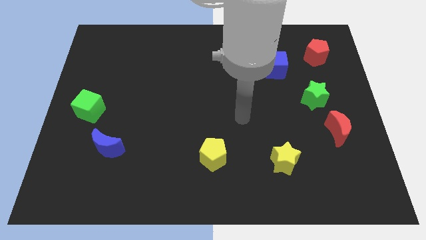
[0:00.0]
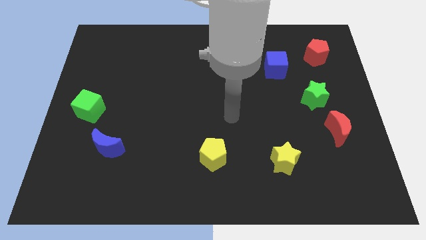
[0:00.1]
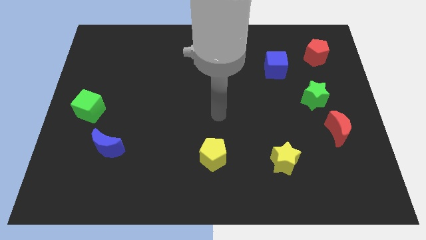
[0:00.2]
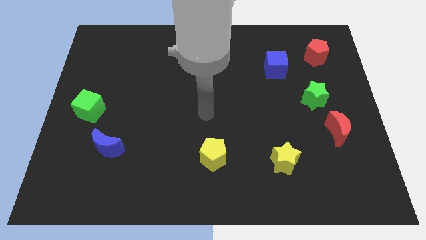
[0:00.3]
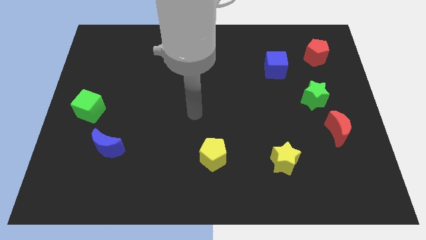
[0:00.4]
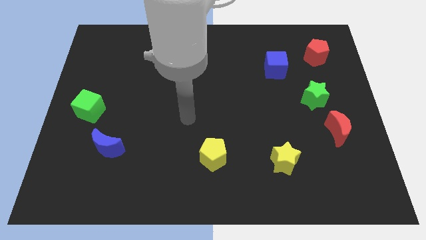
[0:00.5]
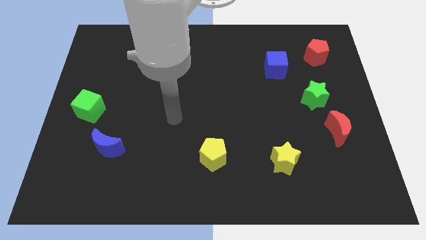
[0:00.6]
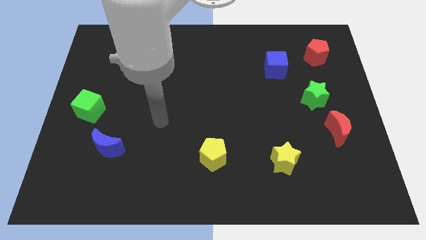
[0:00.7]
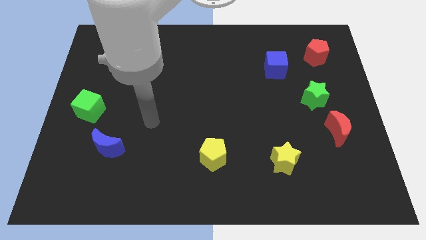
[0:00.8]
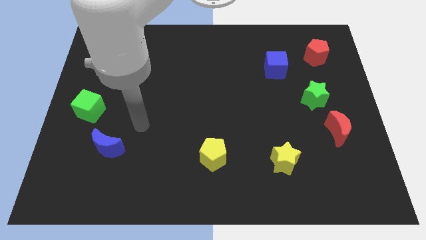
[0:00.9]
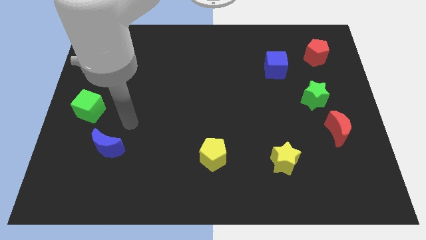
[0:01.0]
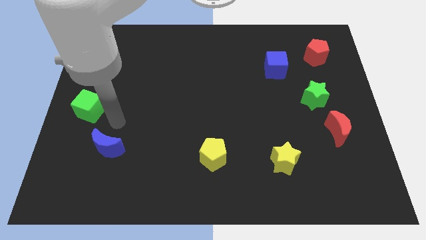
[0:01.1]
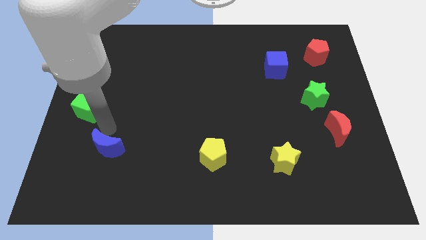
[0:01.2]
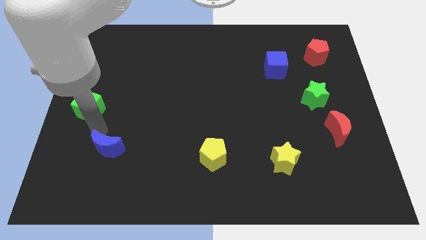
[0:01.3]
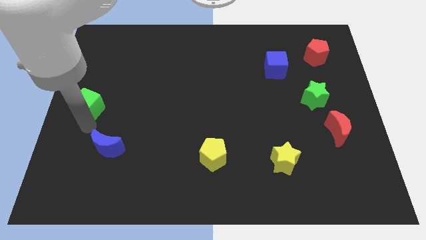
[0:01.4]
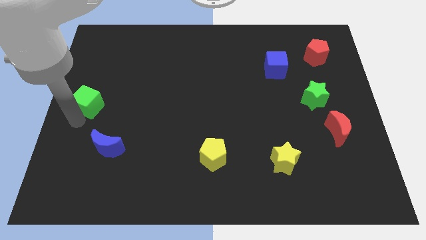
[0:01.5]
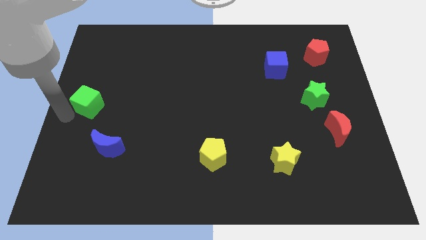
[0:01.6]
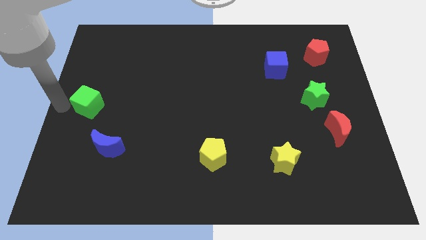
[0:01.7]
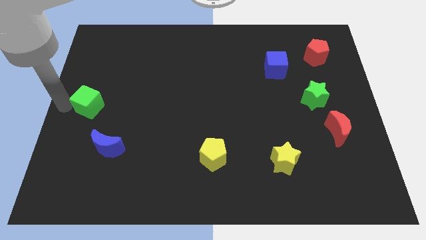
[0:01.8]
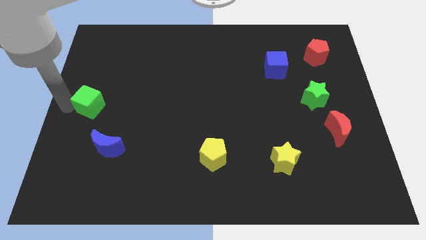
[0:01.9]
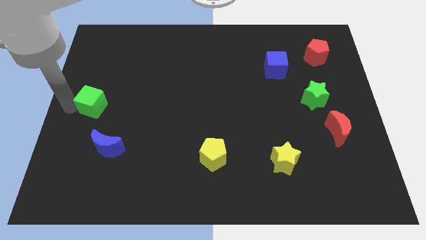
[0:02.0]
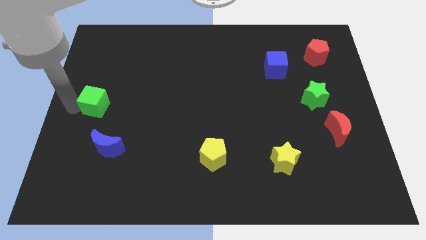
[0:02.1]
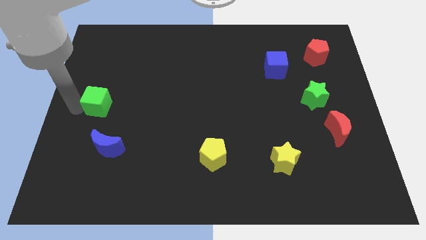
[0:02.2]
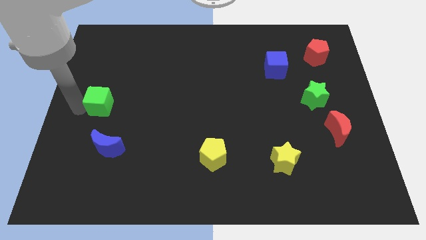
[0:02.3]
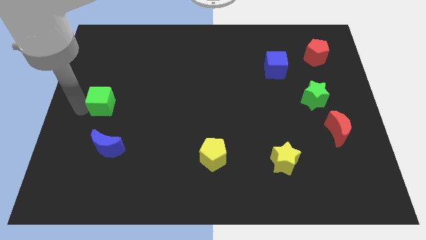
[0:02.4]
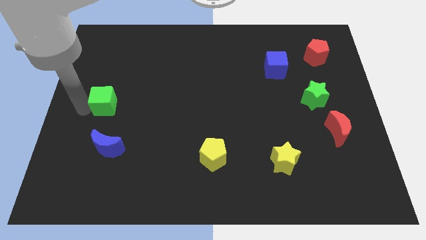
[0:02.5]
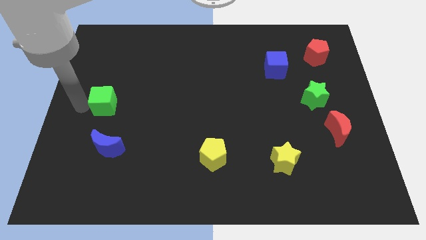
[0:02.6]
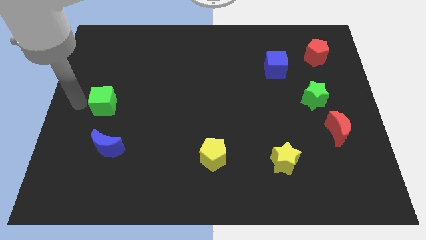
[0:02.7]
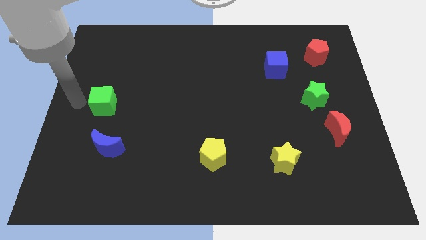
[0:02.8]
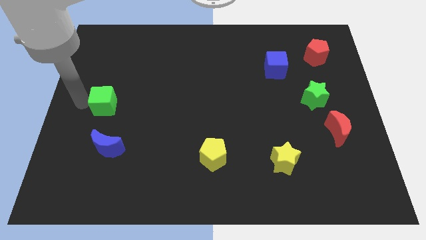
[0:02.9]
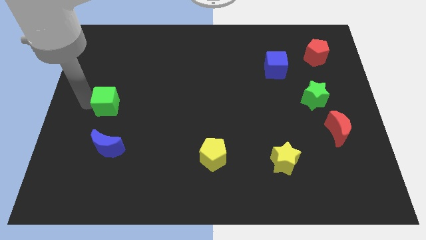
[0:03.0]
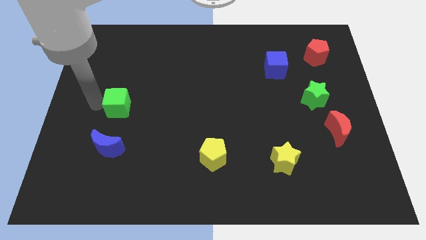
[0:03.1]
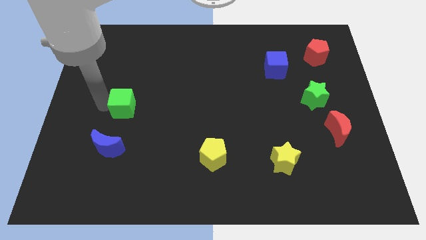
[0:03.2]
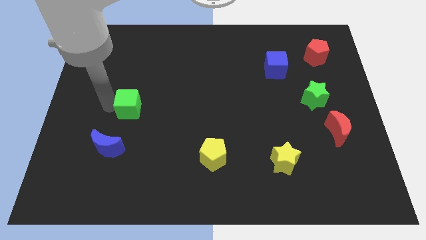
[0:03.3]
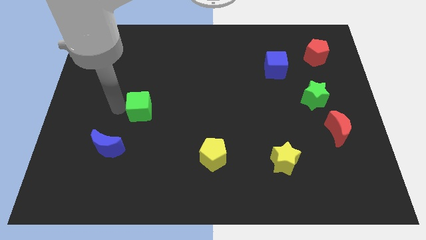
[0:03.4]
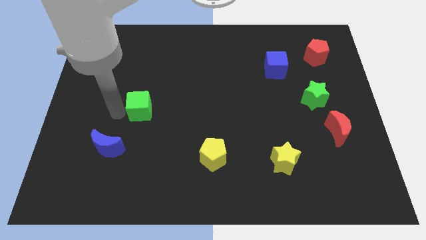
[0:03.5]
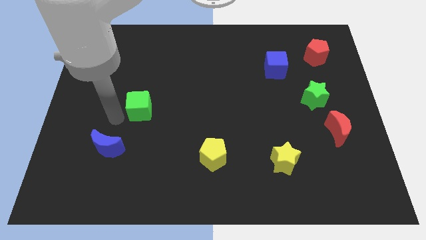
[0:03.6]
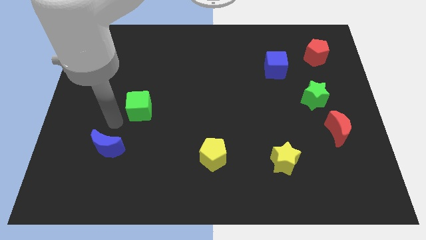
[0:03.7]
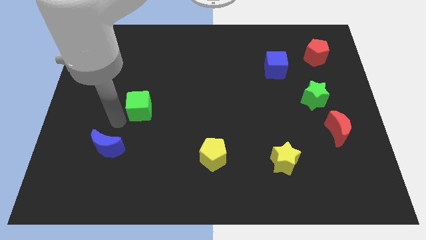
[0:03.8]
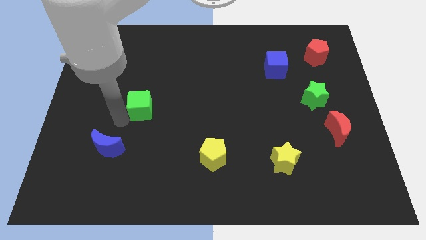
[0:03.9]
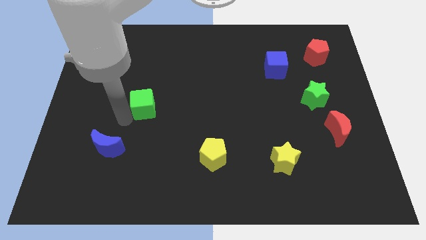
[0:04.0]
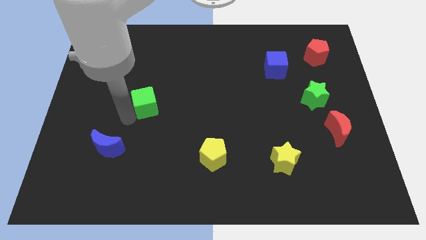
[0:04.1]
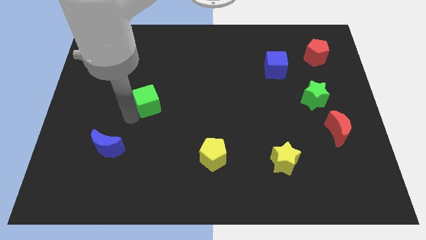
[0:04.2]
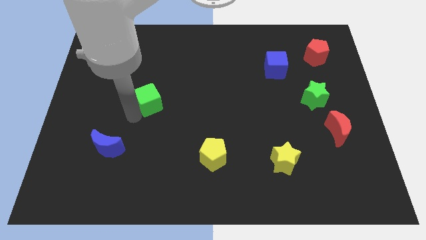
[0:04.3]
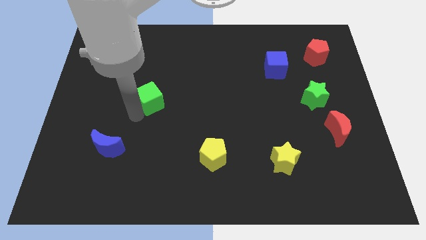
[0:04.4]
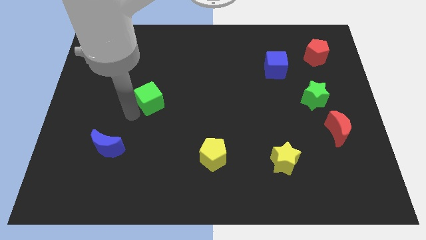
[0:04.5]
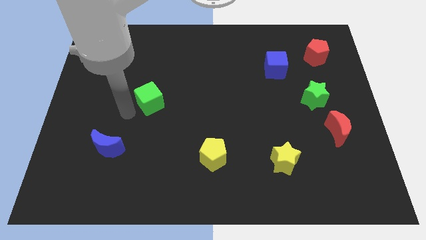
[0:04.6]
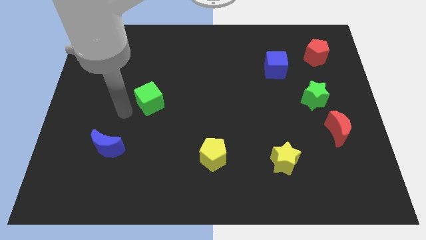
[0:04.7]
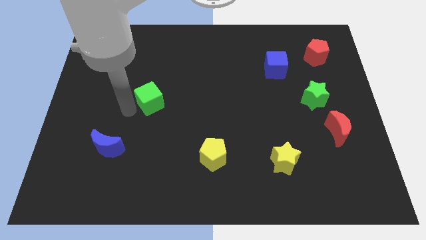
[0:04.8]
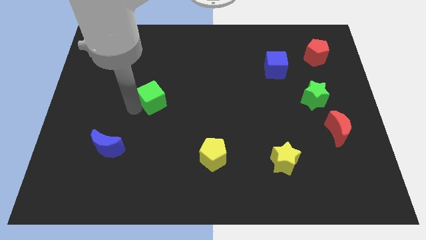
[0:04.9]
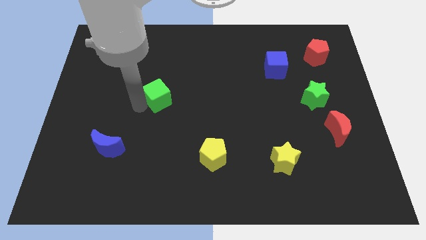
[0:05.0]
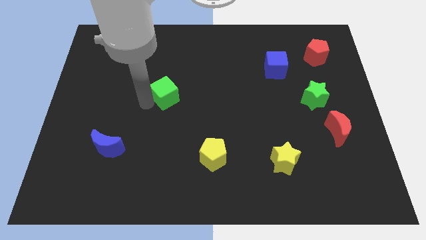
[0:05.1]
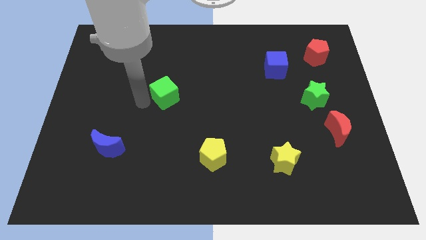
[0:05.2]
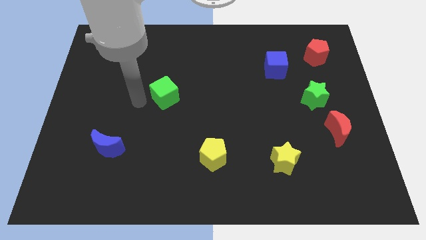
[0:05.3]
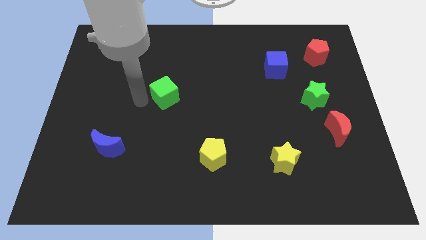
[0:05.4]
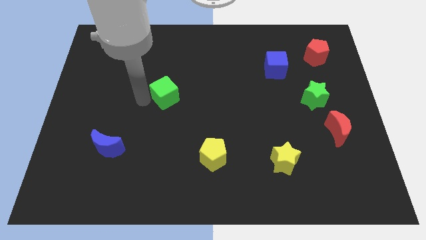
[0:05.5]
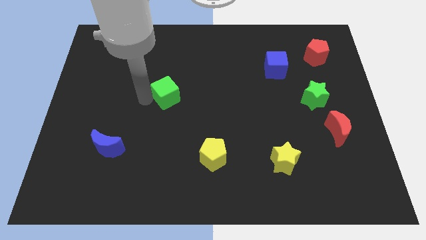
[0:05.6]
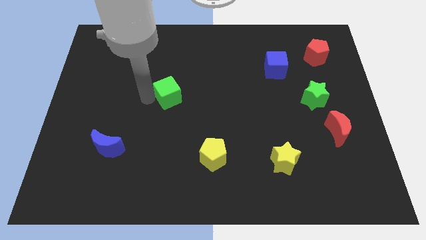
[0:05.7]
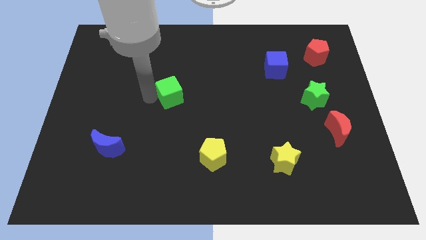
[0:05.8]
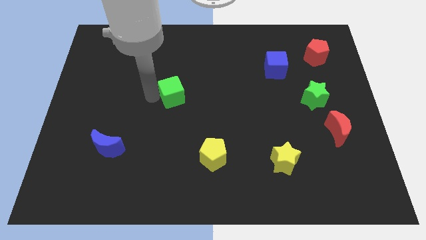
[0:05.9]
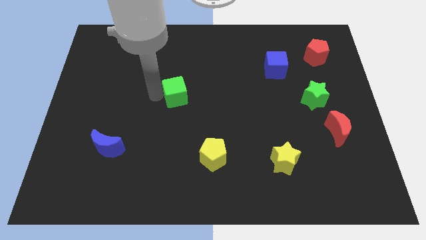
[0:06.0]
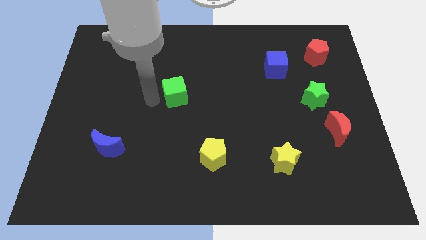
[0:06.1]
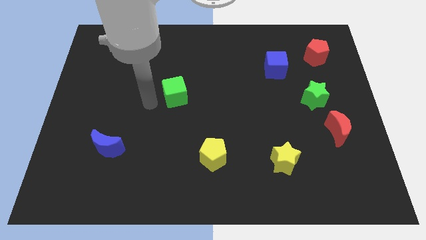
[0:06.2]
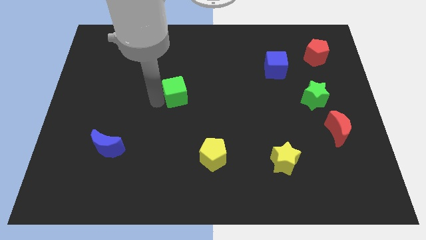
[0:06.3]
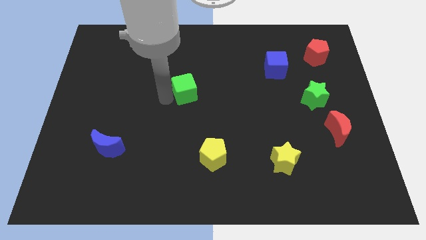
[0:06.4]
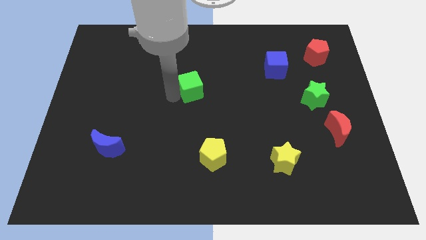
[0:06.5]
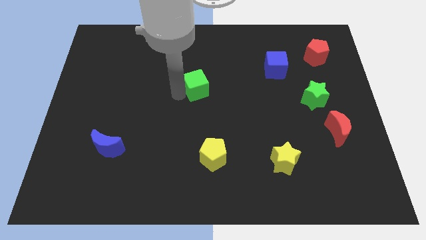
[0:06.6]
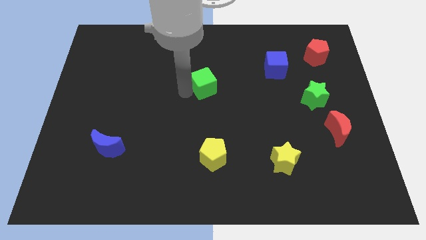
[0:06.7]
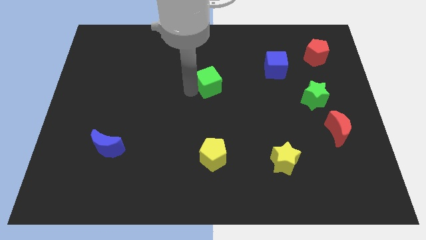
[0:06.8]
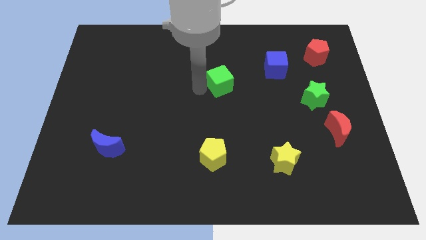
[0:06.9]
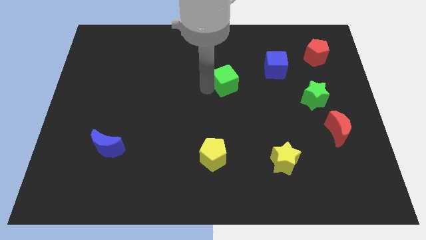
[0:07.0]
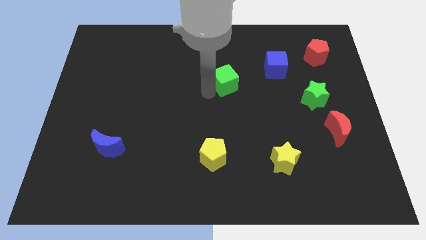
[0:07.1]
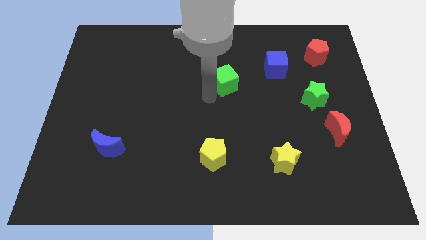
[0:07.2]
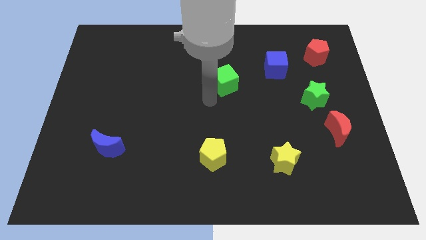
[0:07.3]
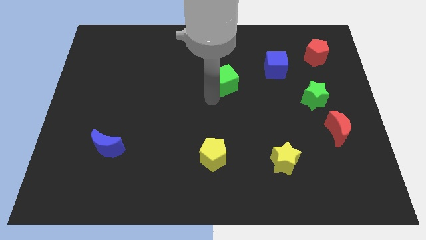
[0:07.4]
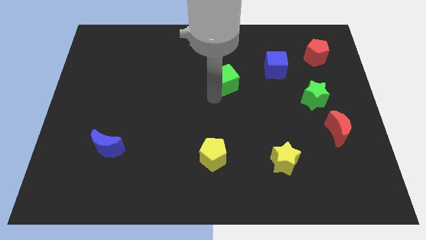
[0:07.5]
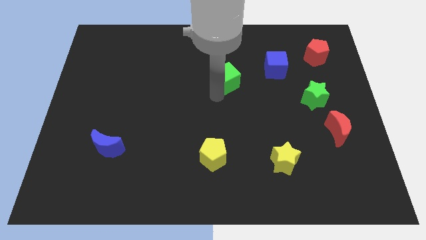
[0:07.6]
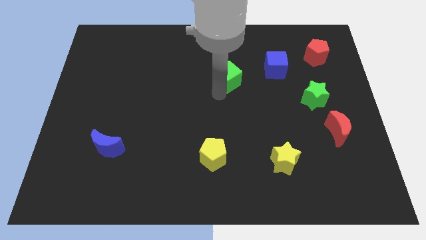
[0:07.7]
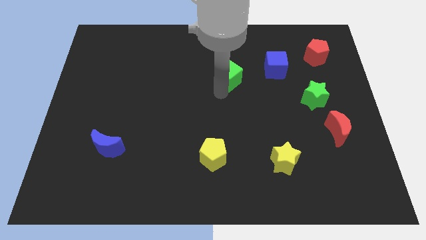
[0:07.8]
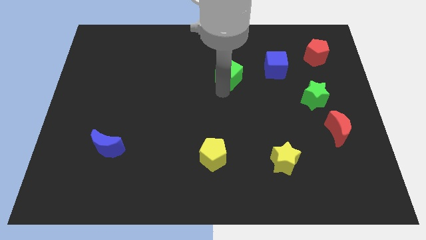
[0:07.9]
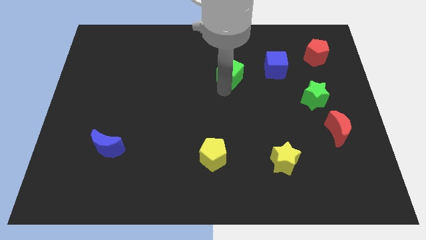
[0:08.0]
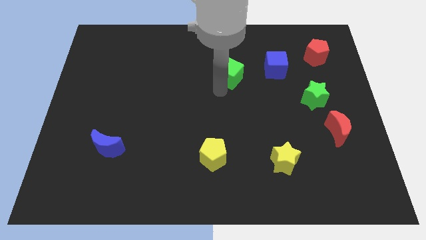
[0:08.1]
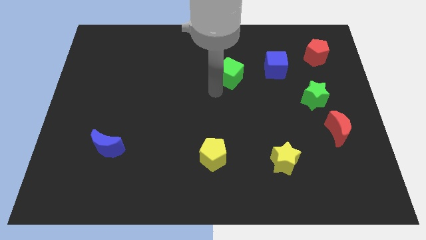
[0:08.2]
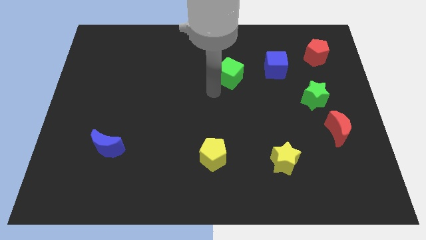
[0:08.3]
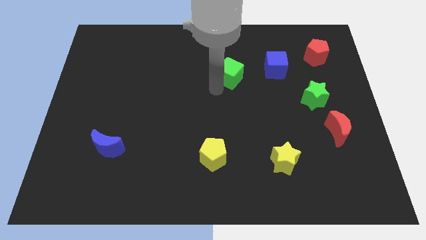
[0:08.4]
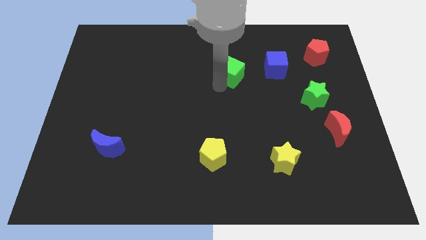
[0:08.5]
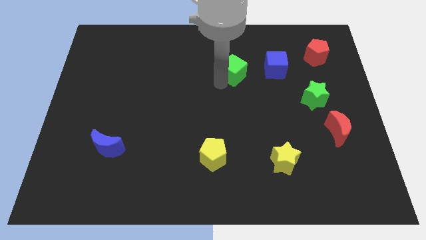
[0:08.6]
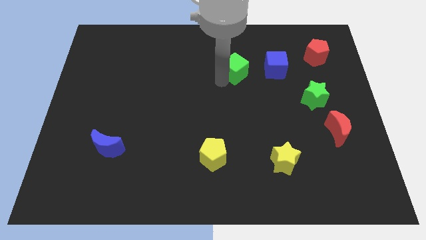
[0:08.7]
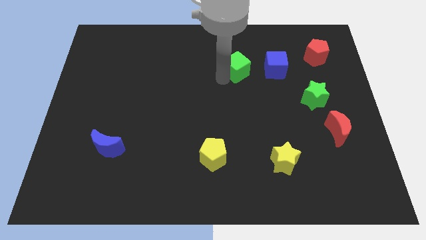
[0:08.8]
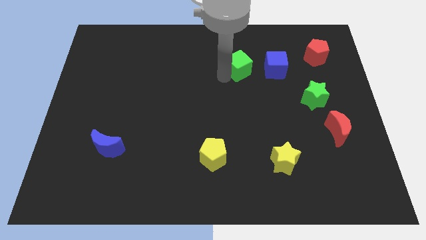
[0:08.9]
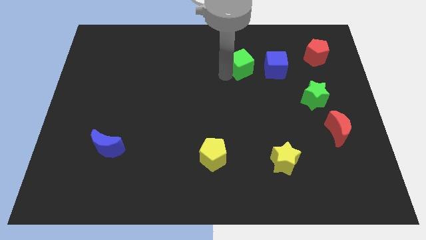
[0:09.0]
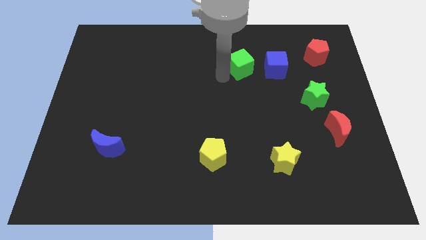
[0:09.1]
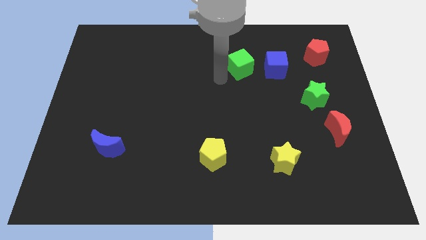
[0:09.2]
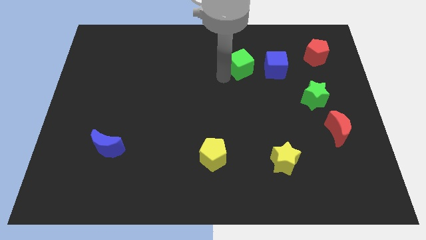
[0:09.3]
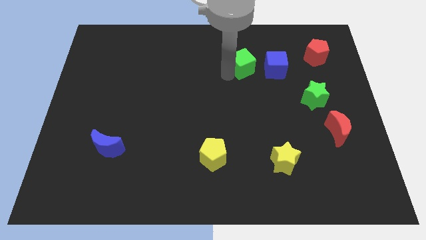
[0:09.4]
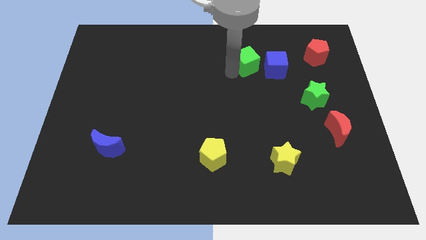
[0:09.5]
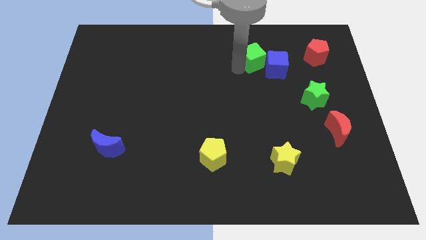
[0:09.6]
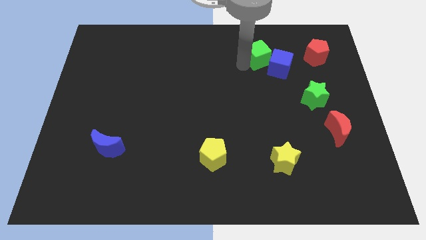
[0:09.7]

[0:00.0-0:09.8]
push the green cube just left of the red pentagon
